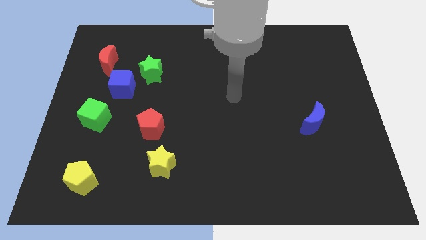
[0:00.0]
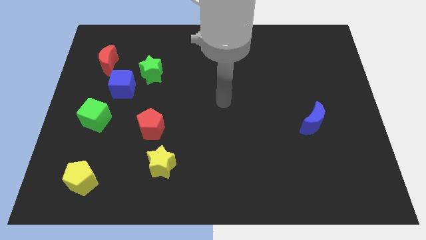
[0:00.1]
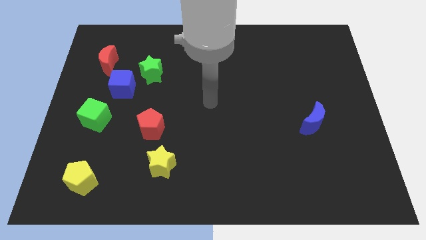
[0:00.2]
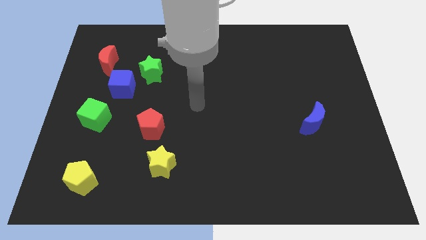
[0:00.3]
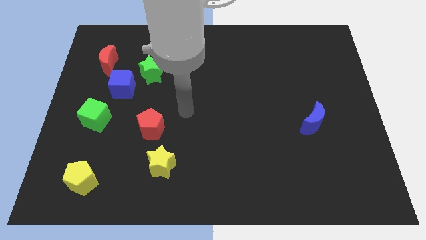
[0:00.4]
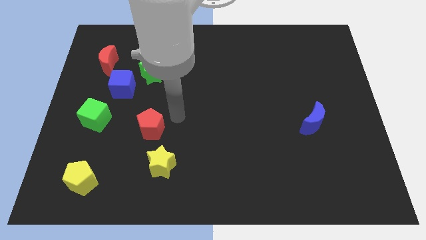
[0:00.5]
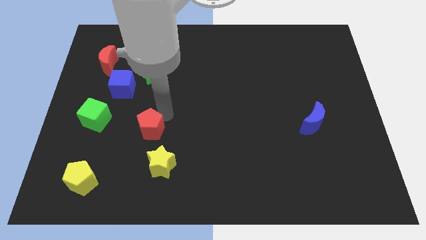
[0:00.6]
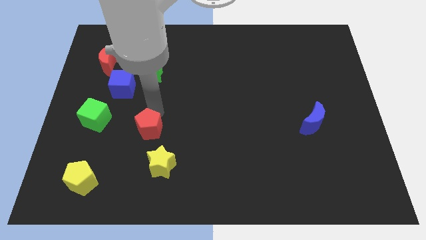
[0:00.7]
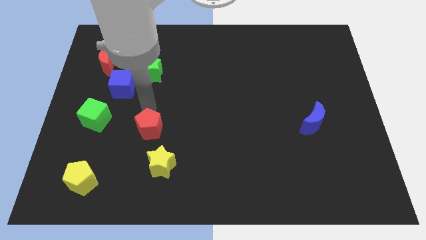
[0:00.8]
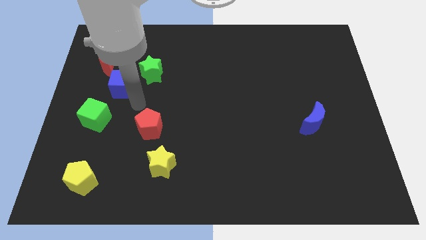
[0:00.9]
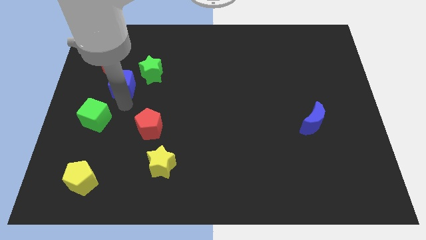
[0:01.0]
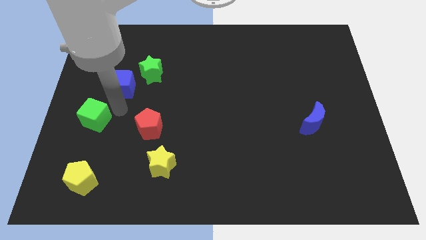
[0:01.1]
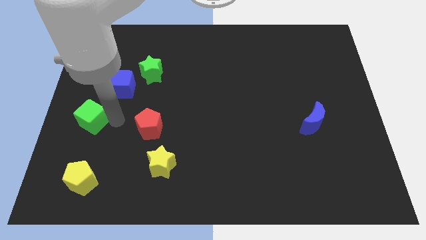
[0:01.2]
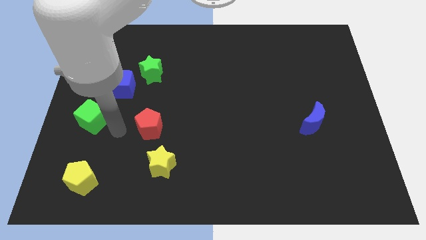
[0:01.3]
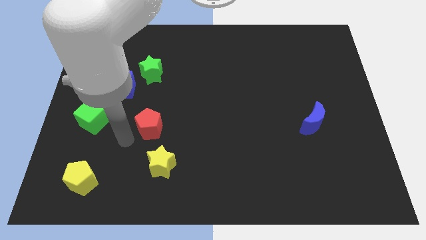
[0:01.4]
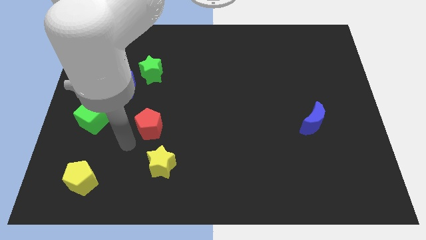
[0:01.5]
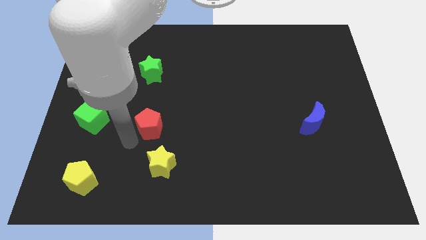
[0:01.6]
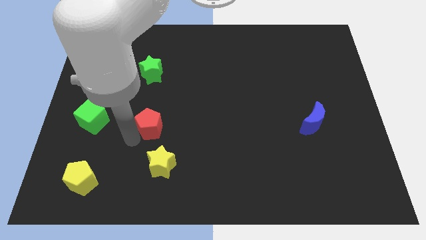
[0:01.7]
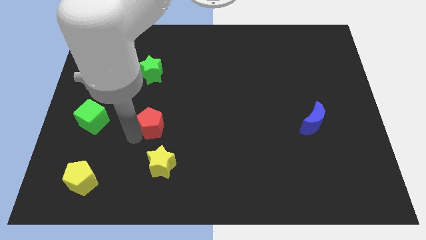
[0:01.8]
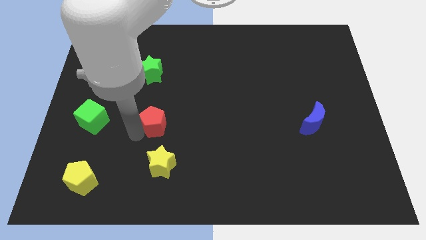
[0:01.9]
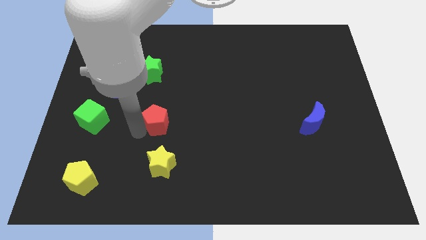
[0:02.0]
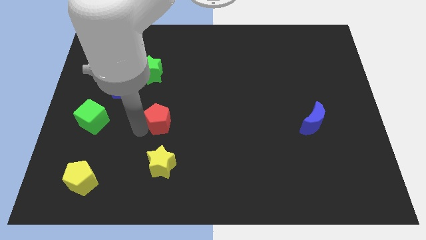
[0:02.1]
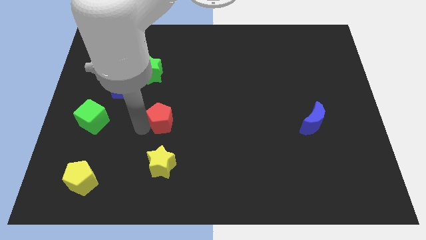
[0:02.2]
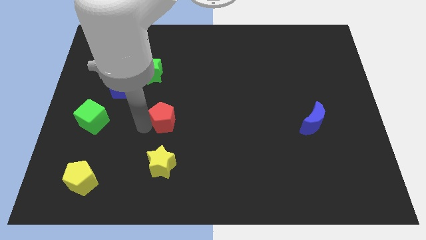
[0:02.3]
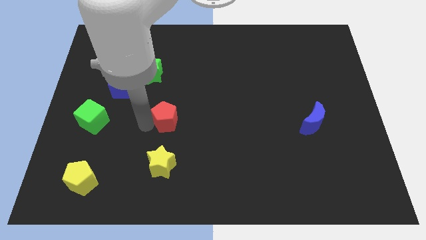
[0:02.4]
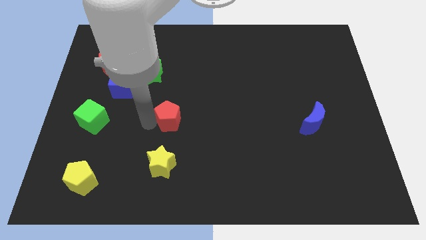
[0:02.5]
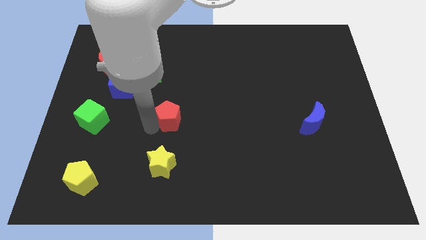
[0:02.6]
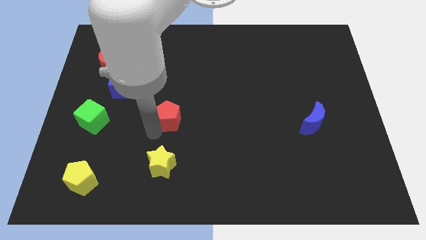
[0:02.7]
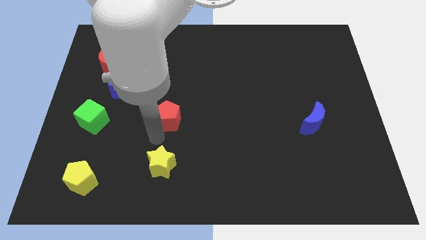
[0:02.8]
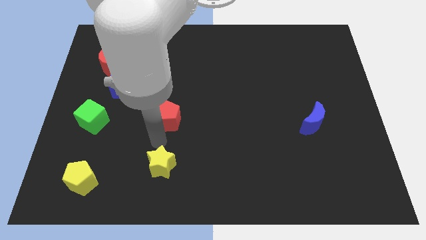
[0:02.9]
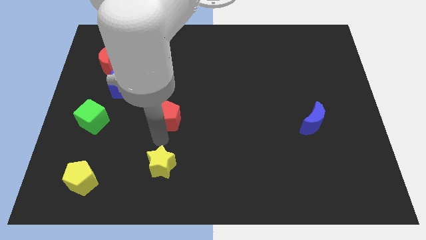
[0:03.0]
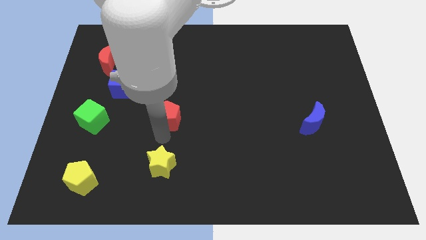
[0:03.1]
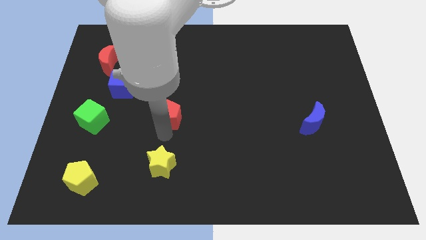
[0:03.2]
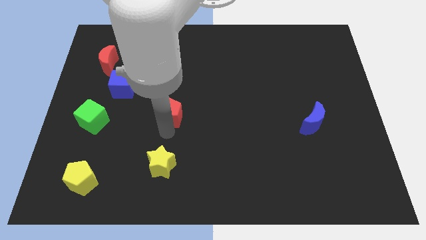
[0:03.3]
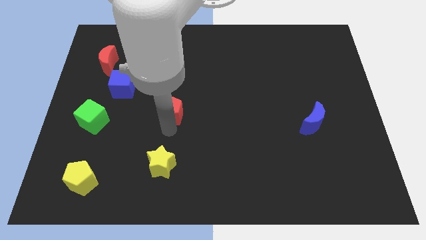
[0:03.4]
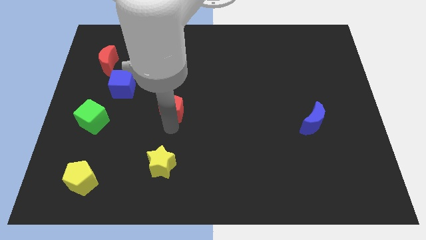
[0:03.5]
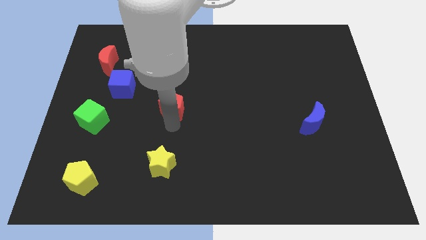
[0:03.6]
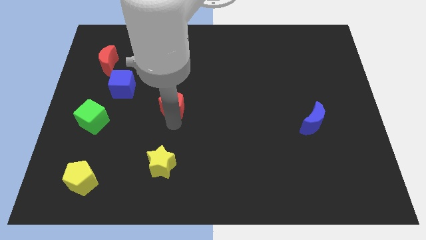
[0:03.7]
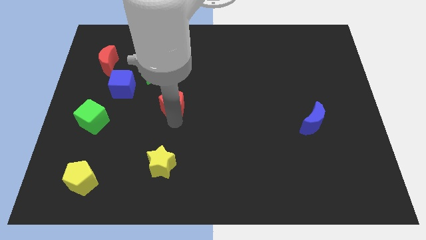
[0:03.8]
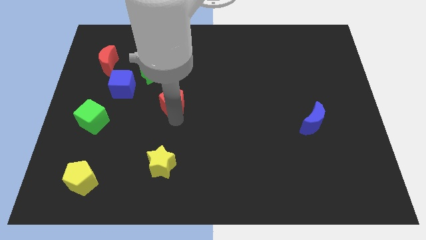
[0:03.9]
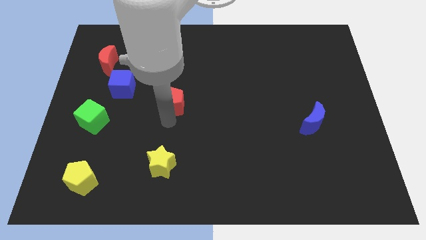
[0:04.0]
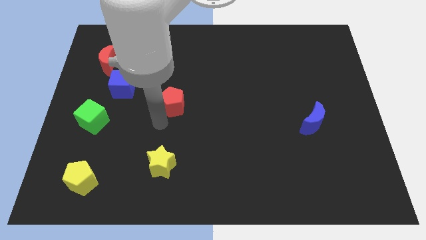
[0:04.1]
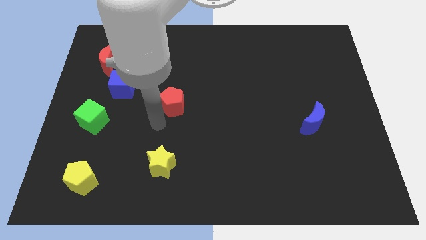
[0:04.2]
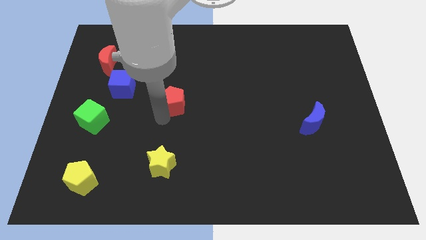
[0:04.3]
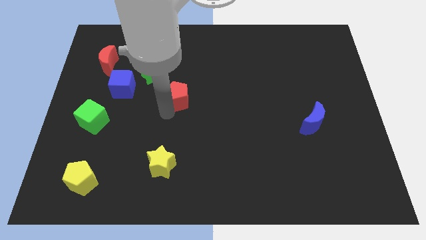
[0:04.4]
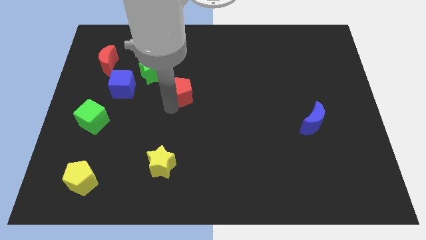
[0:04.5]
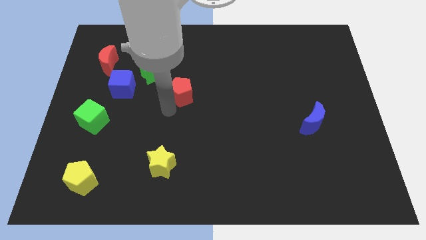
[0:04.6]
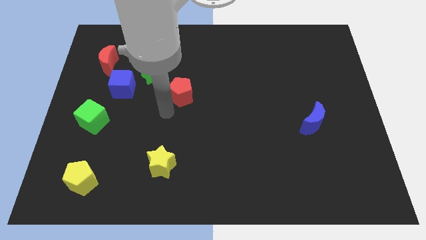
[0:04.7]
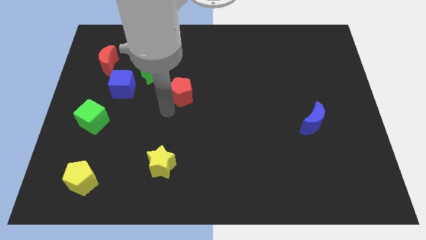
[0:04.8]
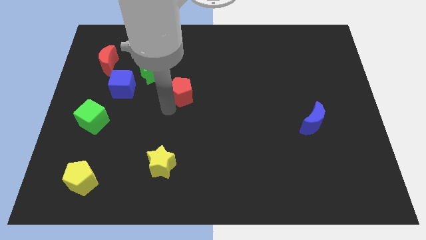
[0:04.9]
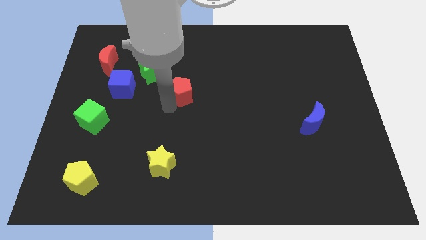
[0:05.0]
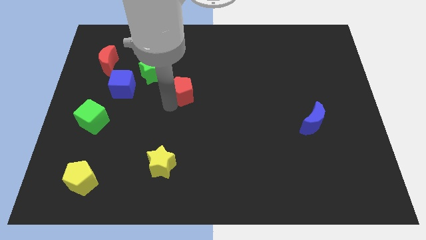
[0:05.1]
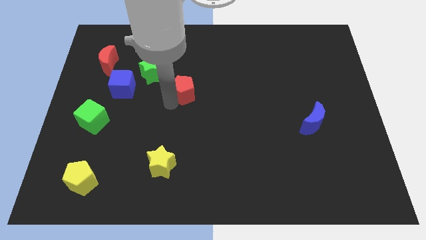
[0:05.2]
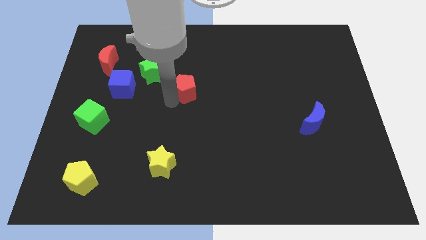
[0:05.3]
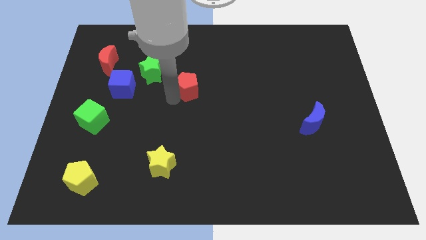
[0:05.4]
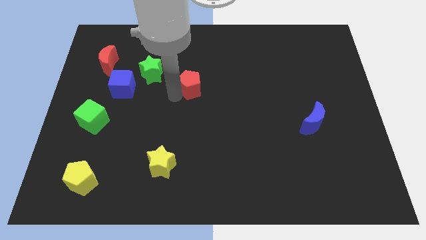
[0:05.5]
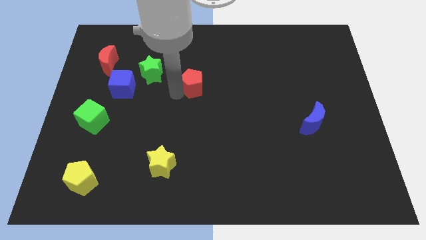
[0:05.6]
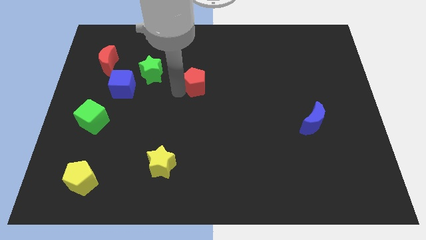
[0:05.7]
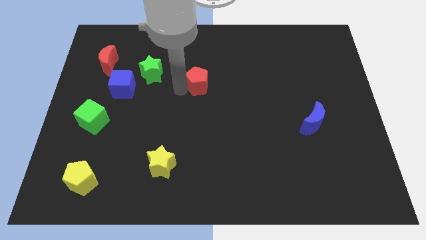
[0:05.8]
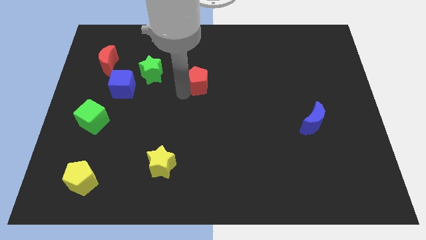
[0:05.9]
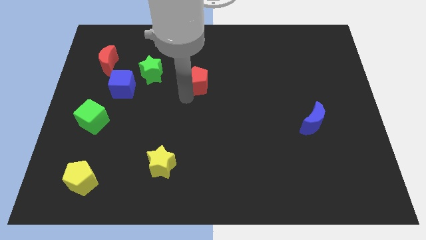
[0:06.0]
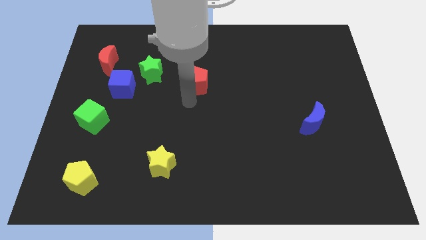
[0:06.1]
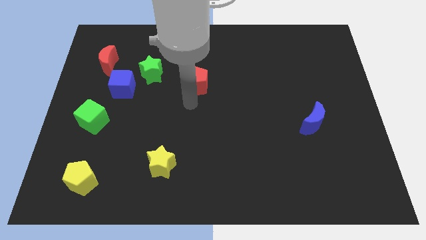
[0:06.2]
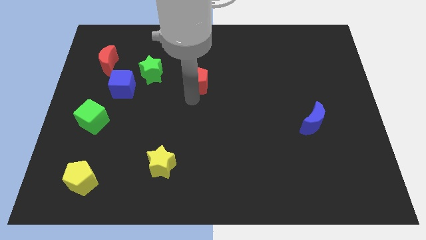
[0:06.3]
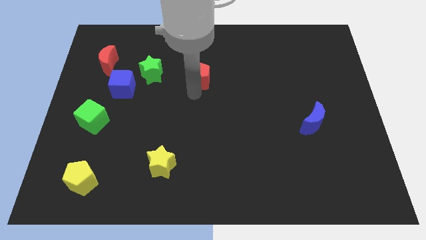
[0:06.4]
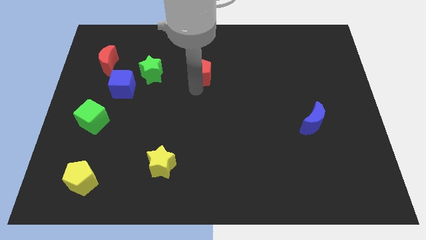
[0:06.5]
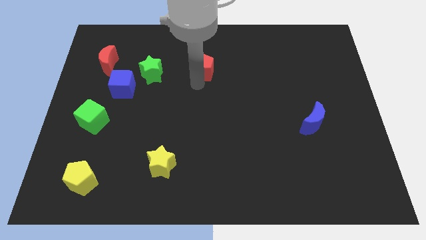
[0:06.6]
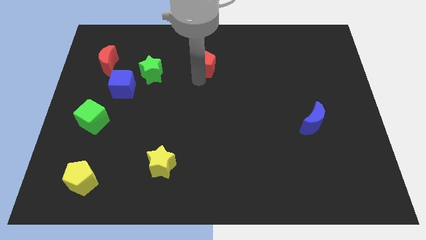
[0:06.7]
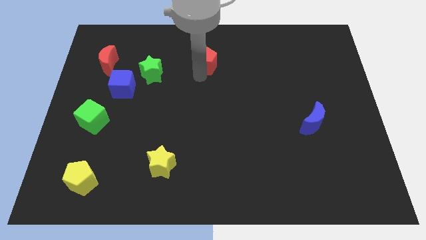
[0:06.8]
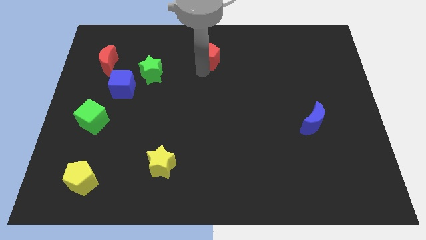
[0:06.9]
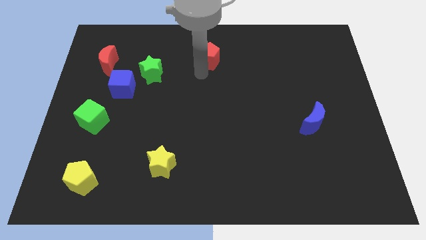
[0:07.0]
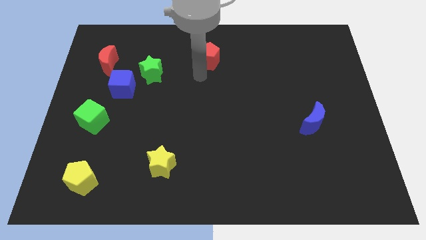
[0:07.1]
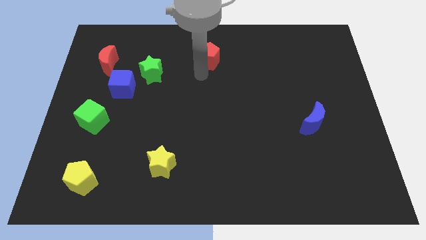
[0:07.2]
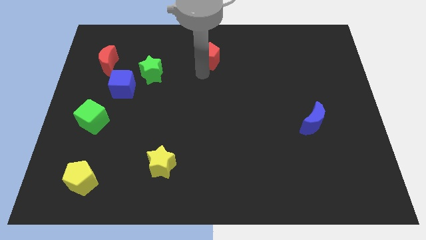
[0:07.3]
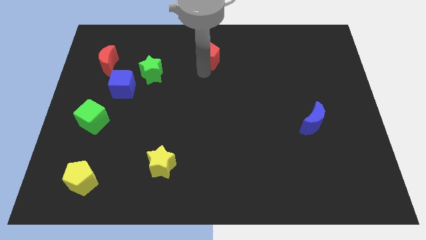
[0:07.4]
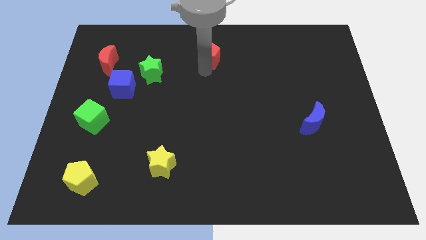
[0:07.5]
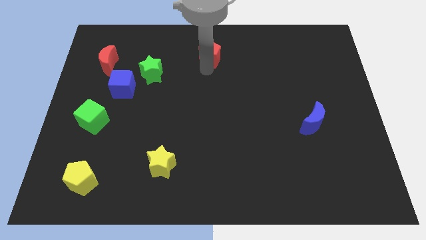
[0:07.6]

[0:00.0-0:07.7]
move the red pentagon to the top
